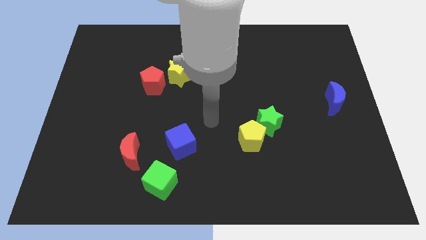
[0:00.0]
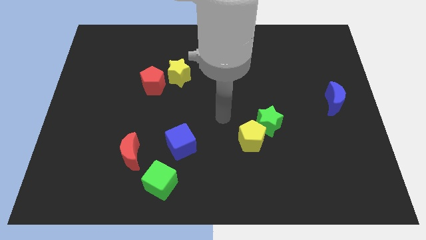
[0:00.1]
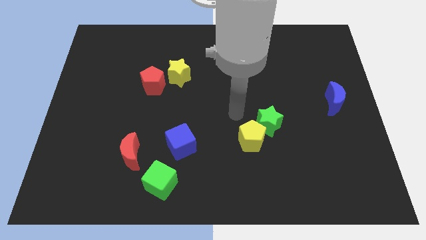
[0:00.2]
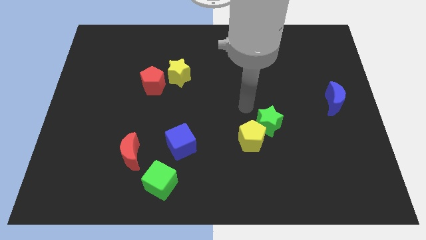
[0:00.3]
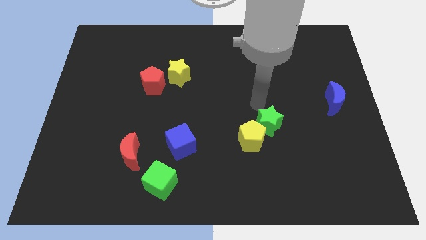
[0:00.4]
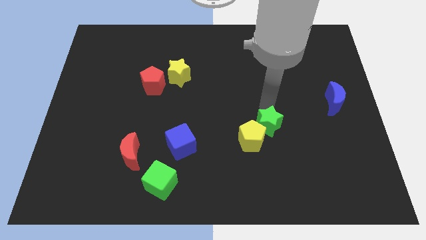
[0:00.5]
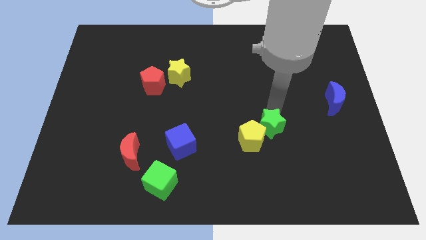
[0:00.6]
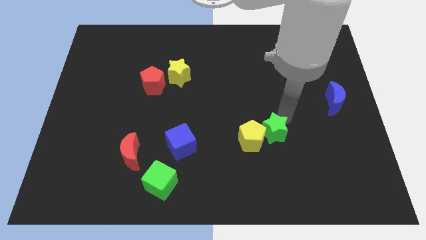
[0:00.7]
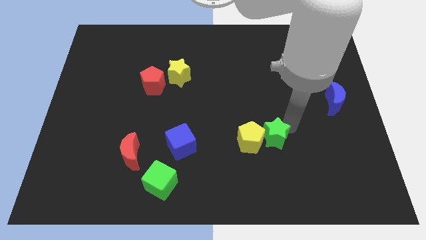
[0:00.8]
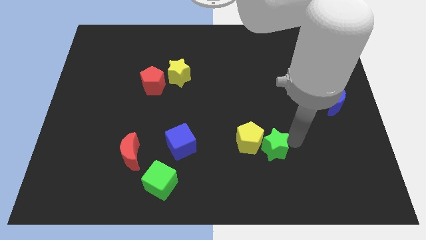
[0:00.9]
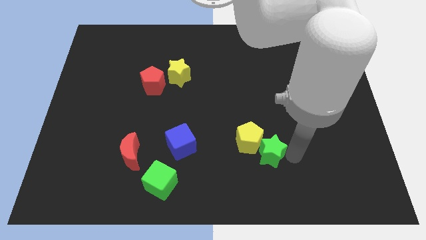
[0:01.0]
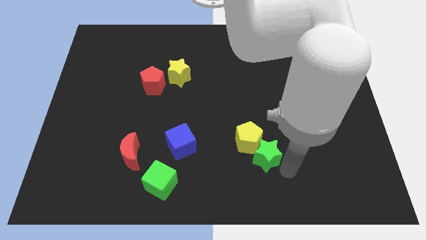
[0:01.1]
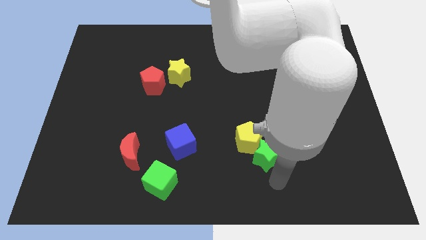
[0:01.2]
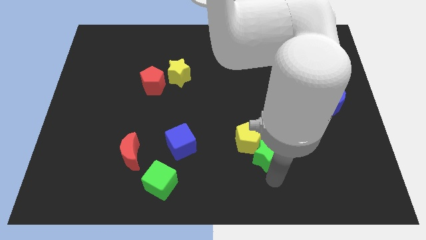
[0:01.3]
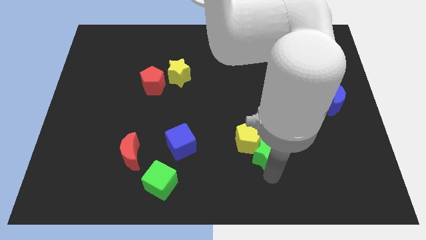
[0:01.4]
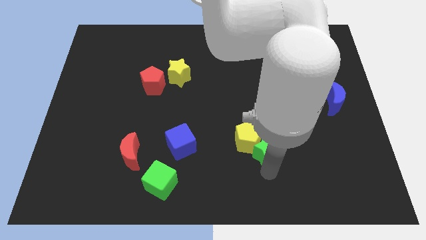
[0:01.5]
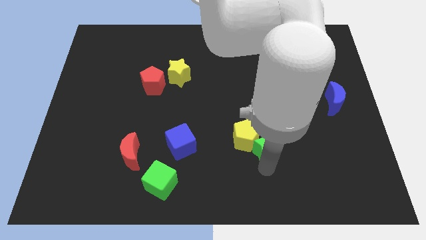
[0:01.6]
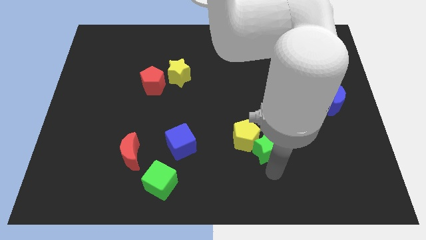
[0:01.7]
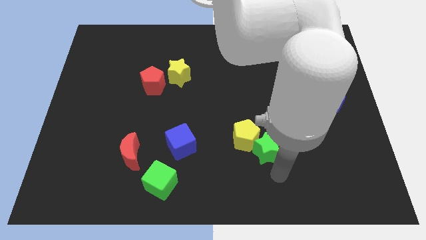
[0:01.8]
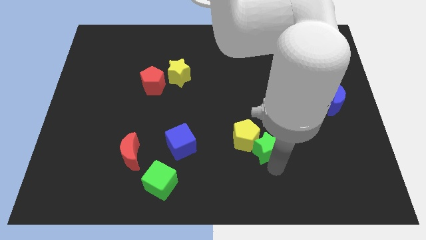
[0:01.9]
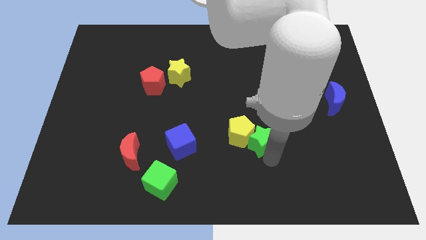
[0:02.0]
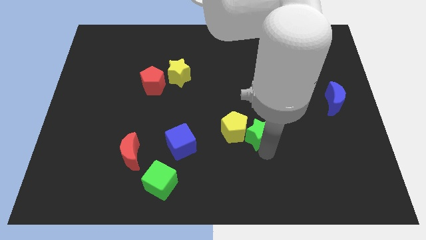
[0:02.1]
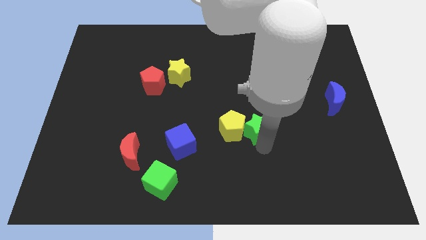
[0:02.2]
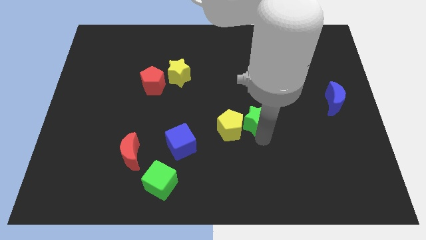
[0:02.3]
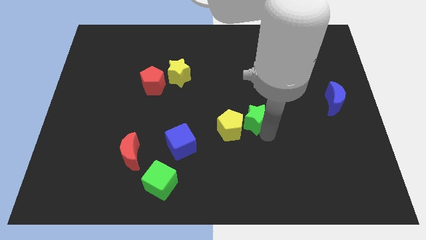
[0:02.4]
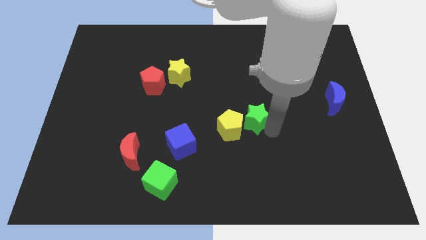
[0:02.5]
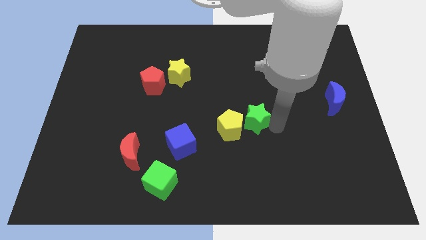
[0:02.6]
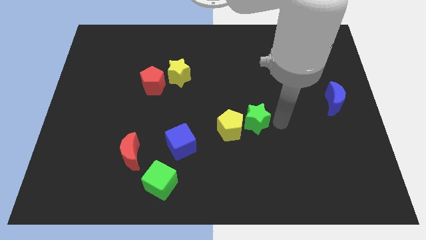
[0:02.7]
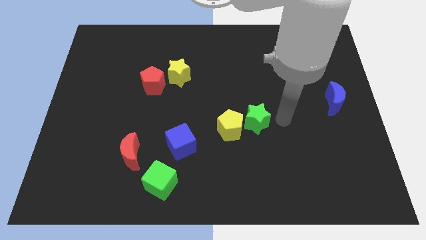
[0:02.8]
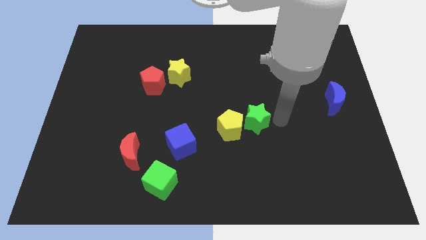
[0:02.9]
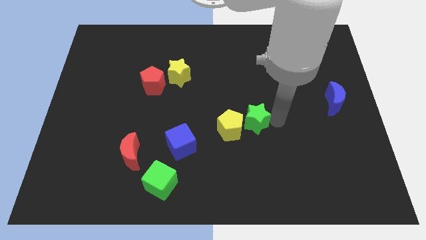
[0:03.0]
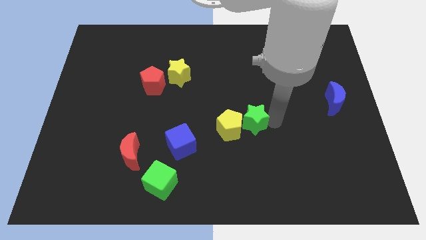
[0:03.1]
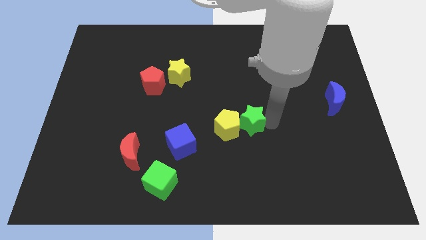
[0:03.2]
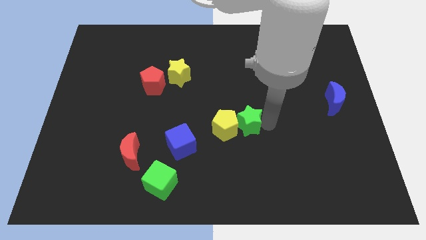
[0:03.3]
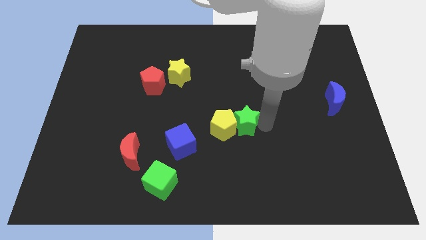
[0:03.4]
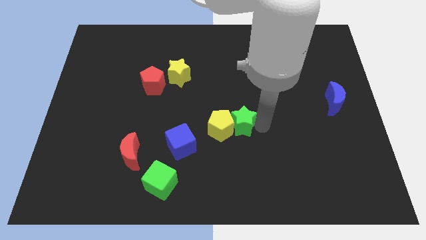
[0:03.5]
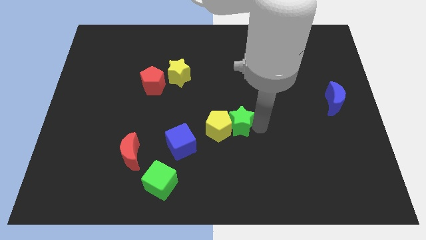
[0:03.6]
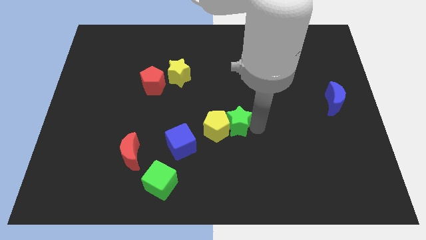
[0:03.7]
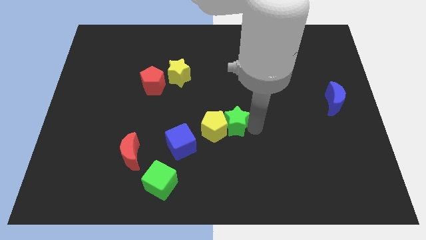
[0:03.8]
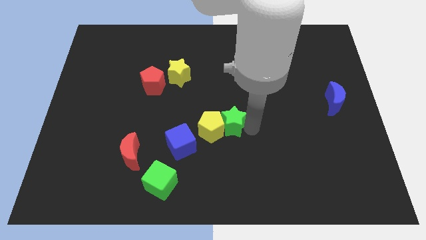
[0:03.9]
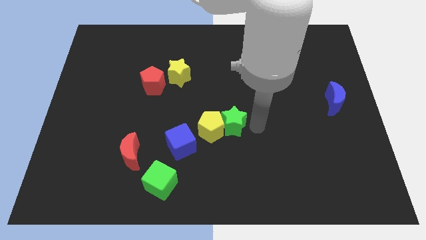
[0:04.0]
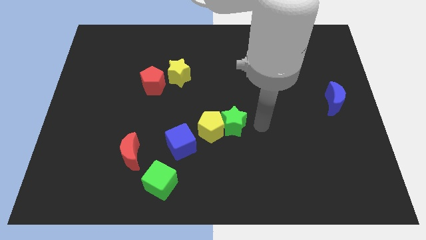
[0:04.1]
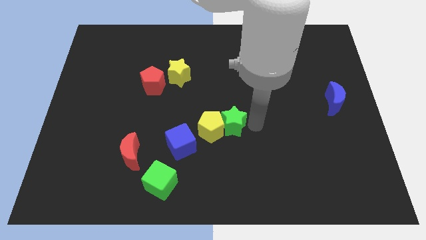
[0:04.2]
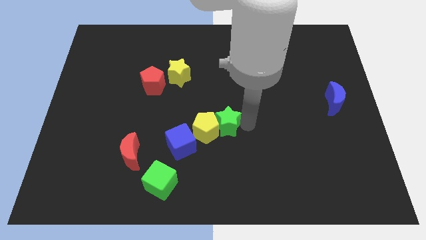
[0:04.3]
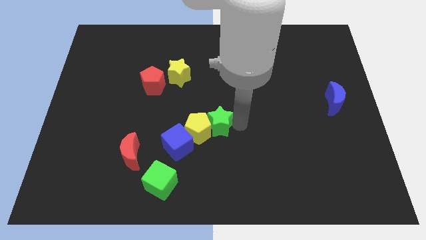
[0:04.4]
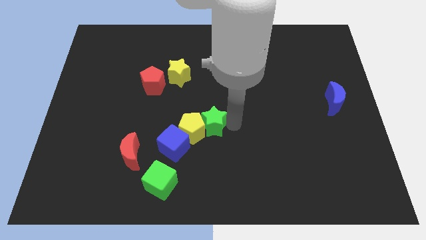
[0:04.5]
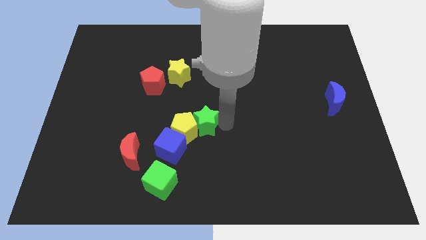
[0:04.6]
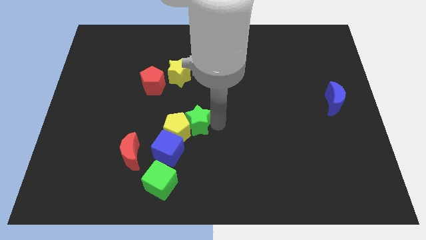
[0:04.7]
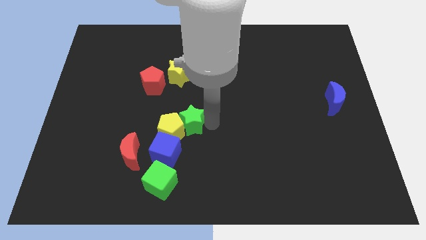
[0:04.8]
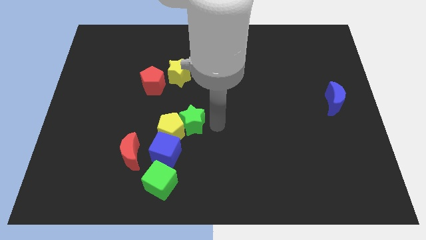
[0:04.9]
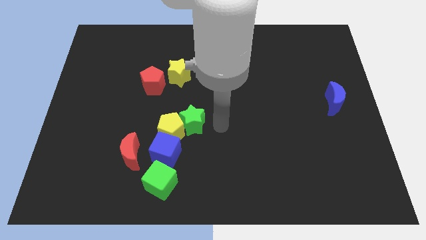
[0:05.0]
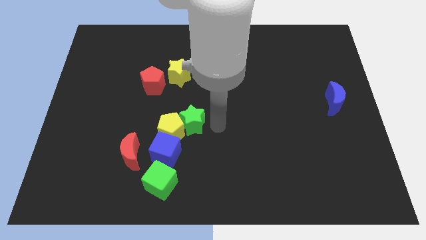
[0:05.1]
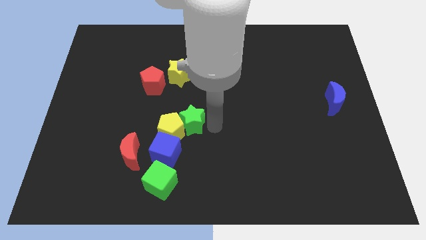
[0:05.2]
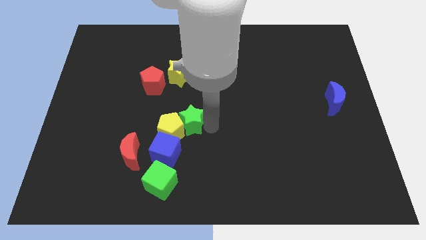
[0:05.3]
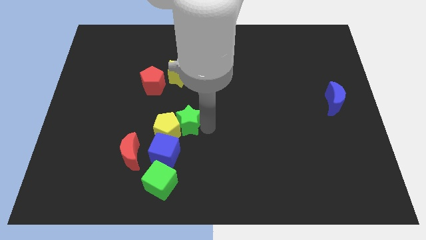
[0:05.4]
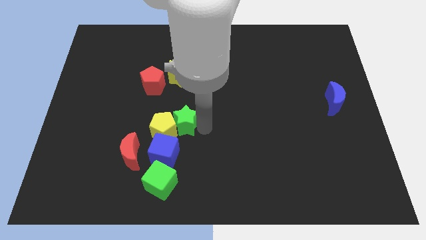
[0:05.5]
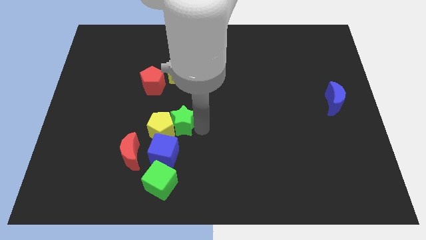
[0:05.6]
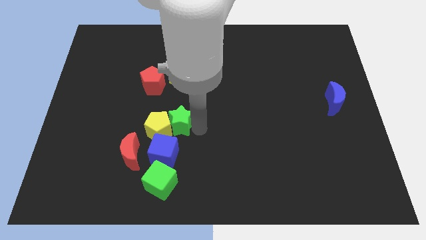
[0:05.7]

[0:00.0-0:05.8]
move the green star left

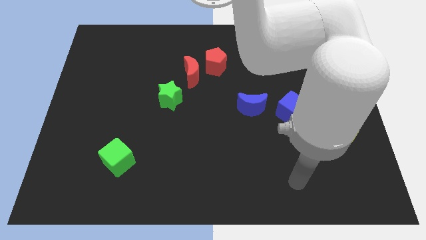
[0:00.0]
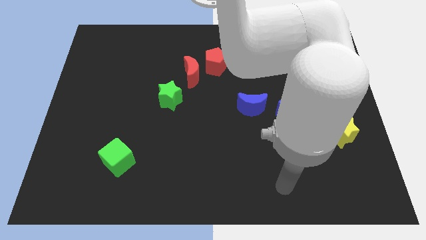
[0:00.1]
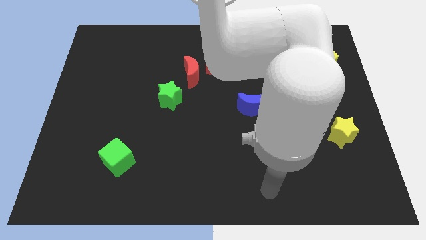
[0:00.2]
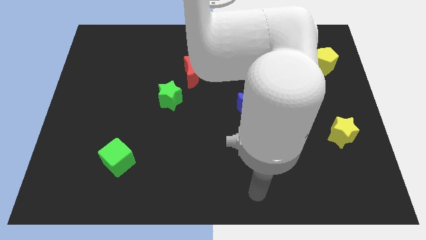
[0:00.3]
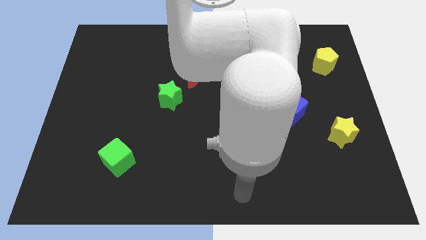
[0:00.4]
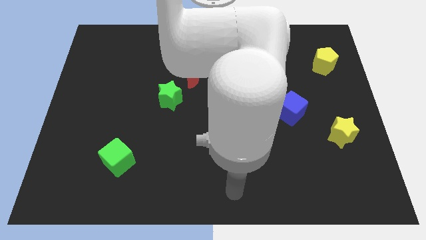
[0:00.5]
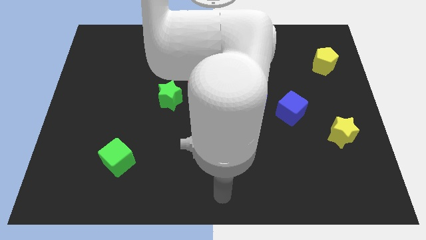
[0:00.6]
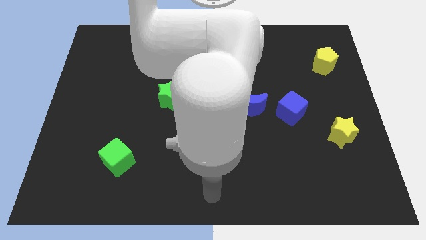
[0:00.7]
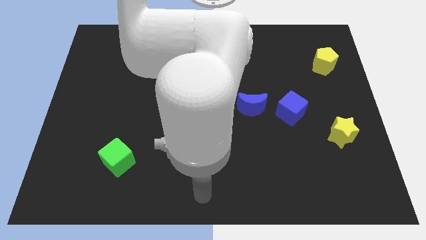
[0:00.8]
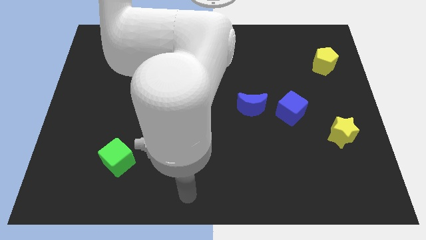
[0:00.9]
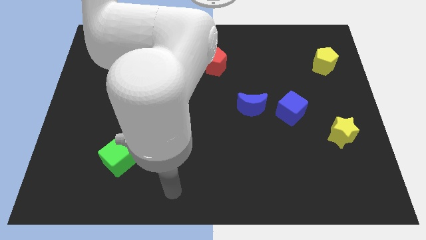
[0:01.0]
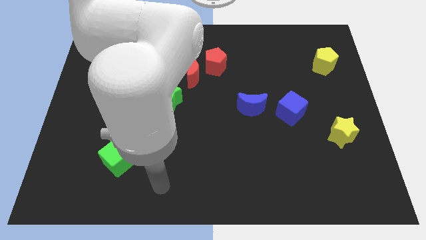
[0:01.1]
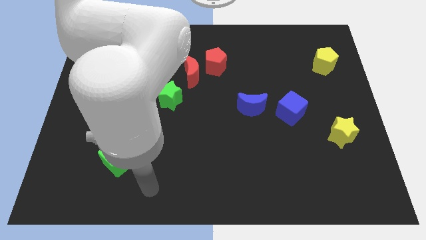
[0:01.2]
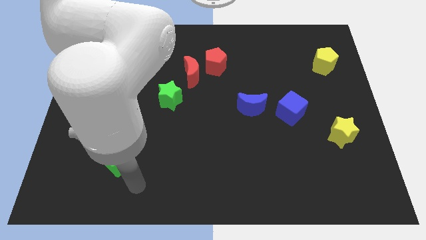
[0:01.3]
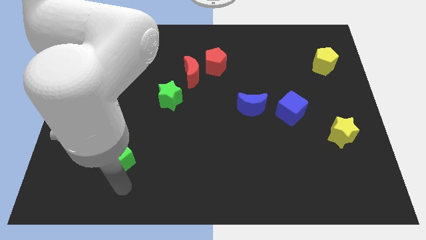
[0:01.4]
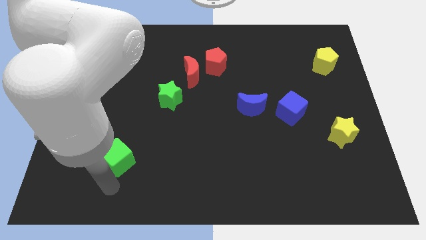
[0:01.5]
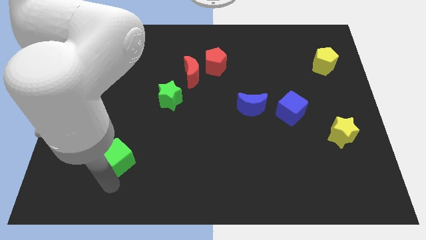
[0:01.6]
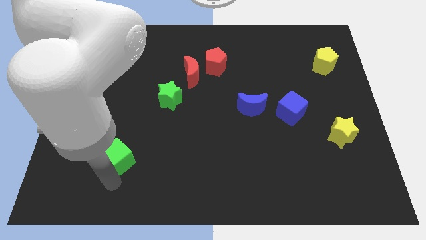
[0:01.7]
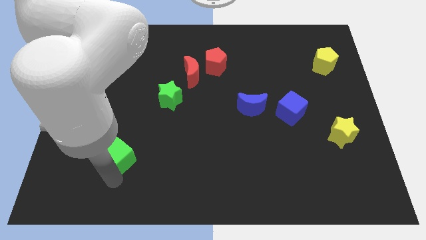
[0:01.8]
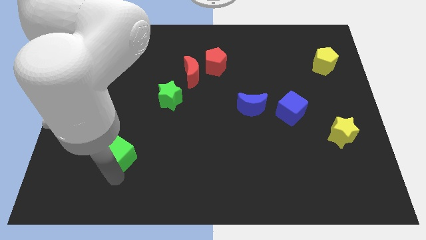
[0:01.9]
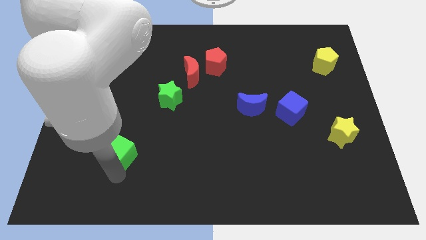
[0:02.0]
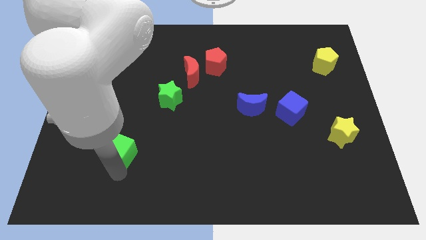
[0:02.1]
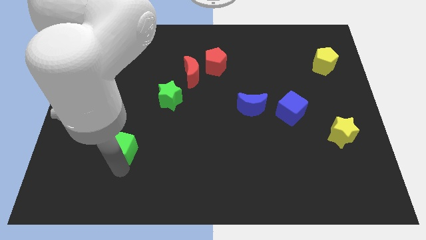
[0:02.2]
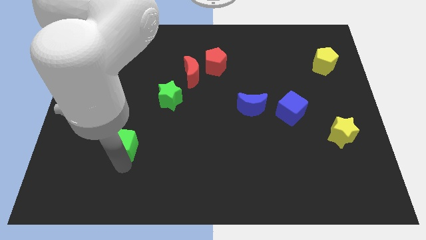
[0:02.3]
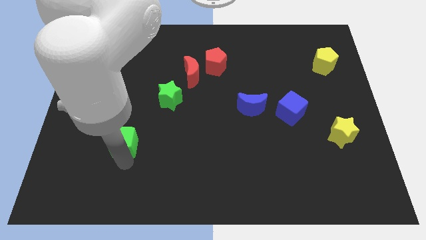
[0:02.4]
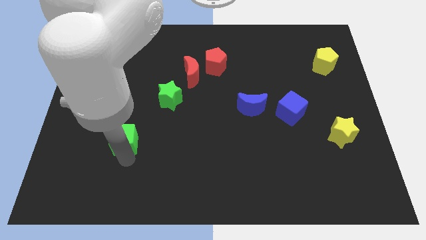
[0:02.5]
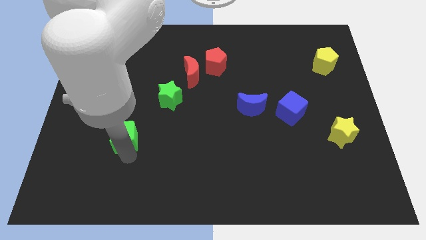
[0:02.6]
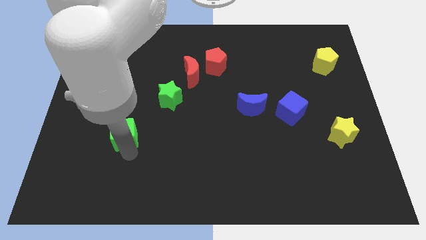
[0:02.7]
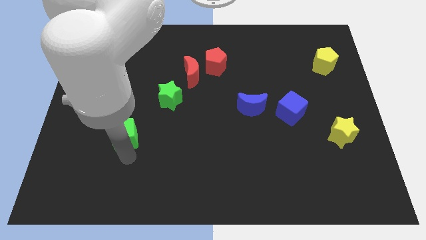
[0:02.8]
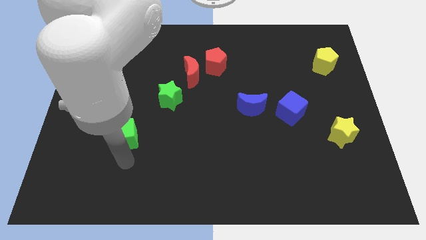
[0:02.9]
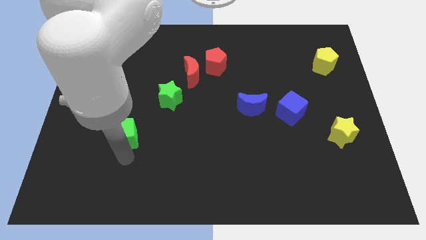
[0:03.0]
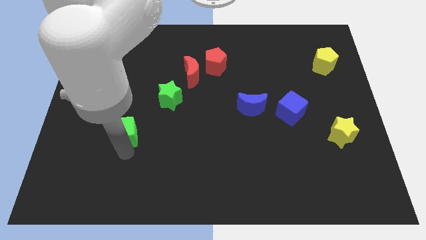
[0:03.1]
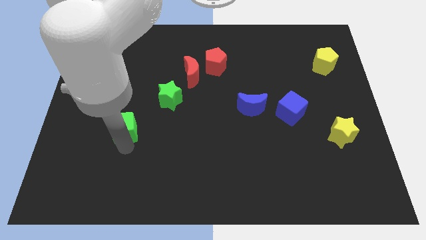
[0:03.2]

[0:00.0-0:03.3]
slide the green cube upwards somewhat
